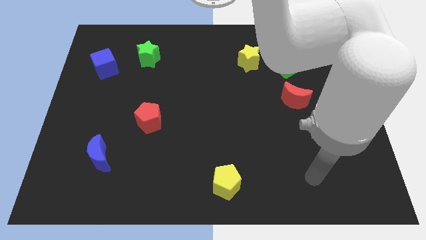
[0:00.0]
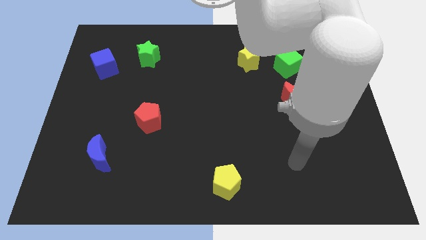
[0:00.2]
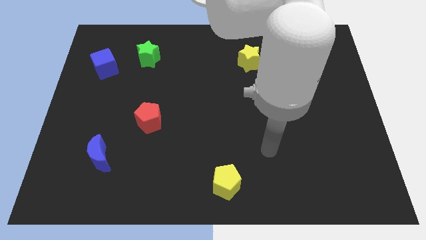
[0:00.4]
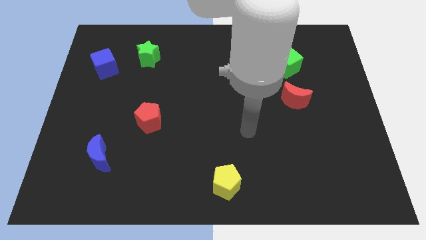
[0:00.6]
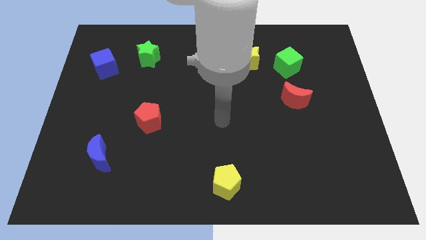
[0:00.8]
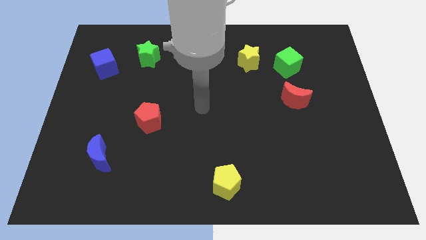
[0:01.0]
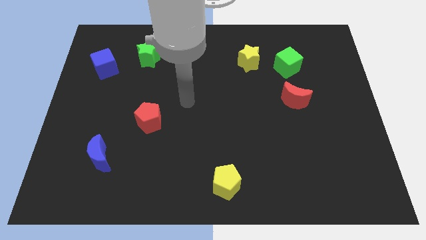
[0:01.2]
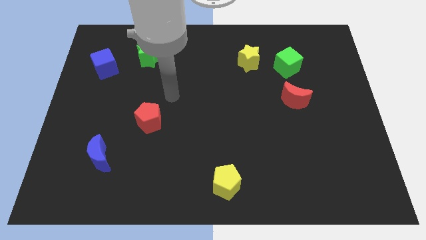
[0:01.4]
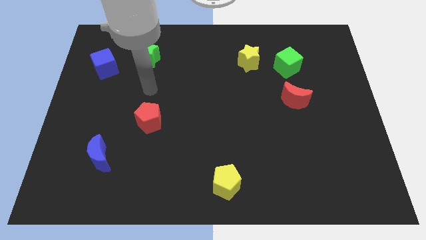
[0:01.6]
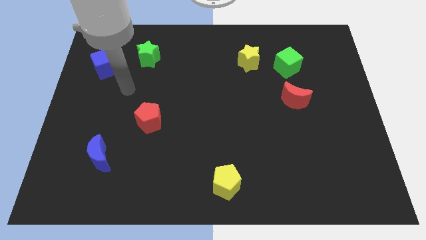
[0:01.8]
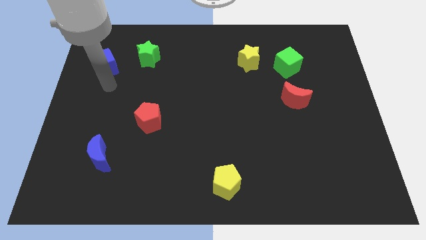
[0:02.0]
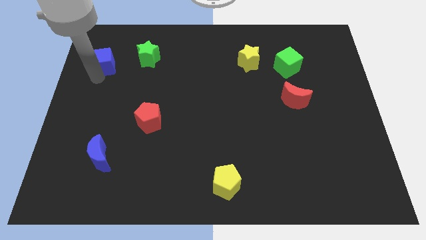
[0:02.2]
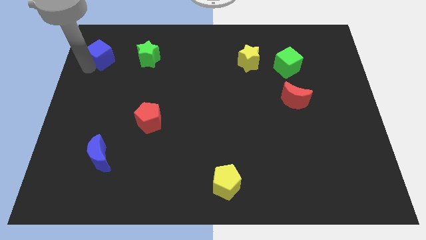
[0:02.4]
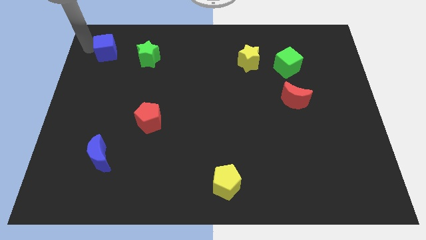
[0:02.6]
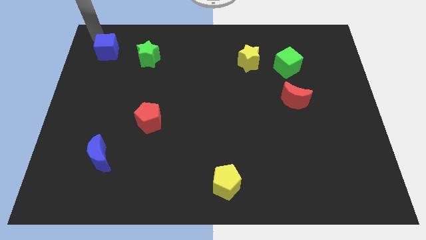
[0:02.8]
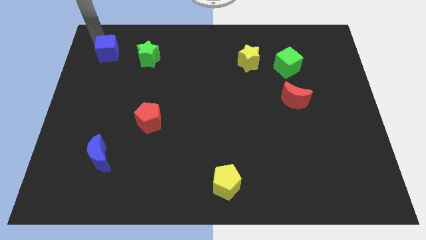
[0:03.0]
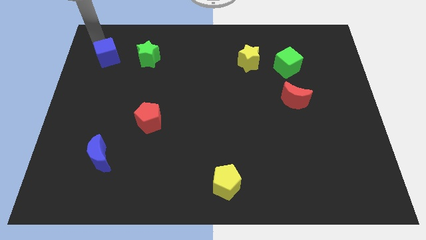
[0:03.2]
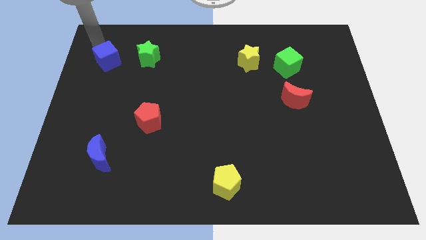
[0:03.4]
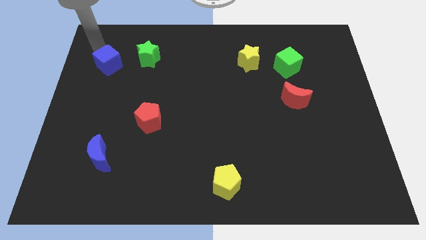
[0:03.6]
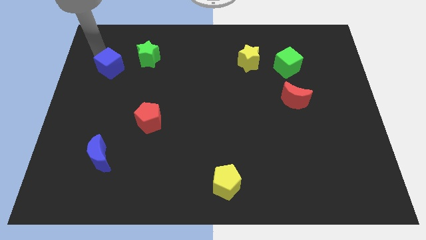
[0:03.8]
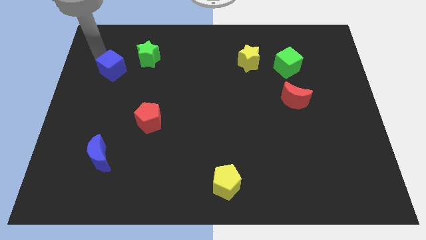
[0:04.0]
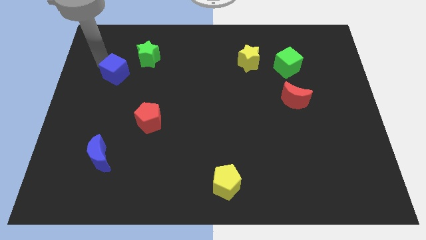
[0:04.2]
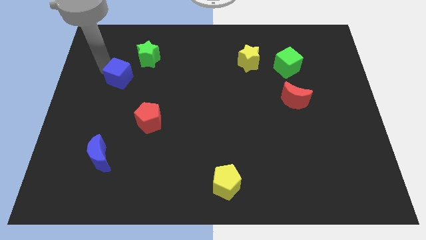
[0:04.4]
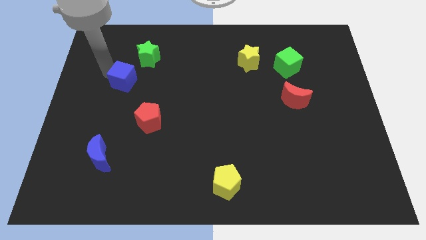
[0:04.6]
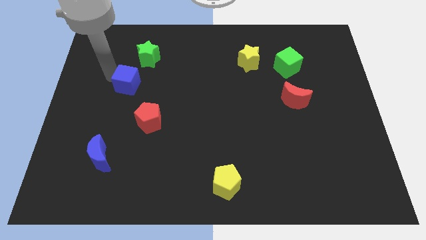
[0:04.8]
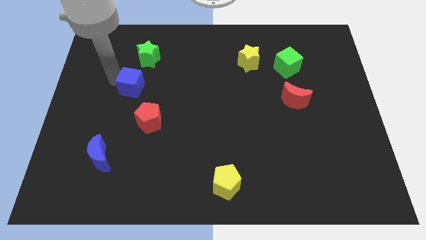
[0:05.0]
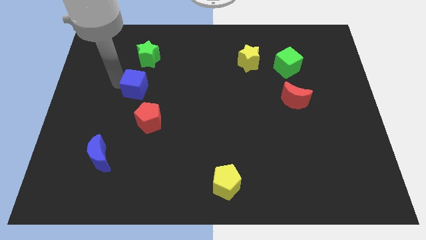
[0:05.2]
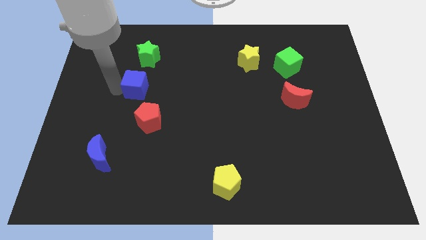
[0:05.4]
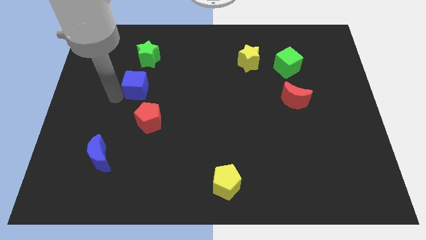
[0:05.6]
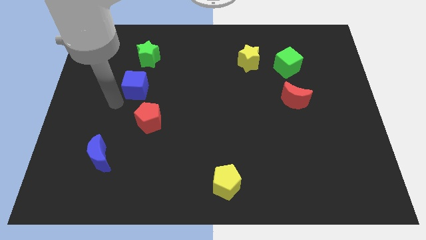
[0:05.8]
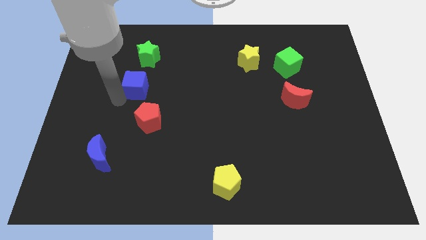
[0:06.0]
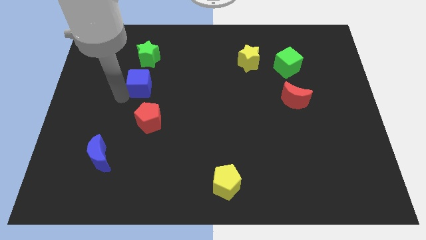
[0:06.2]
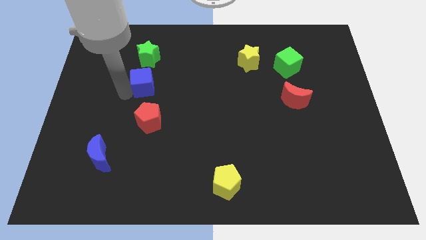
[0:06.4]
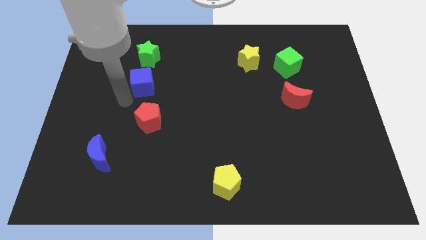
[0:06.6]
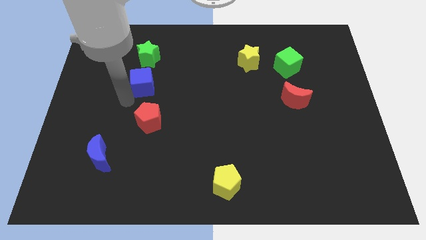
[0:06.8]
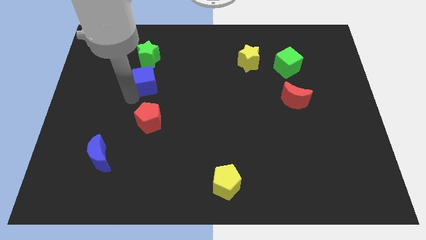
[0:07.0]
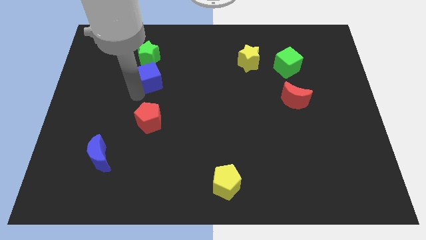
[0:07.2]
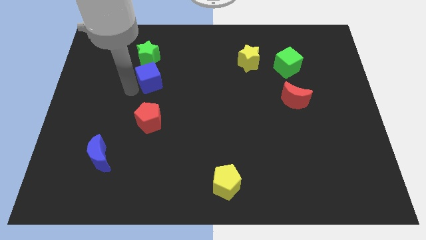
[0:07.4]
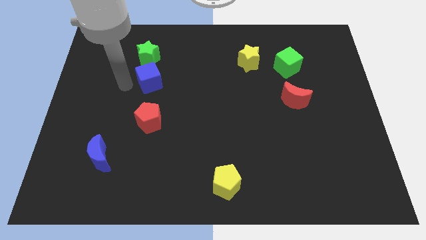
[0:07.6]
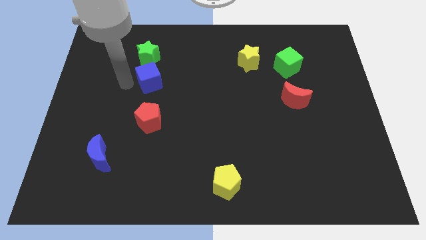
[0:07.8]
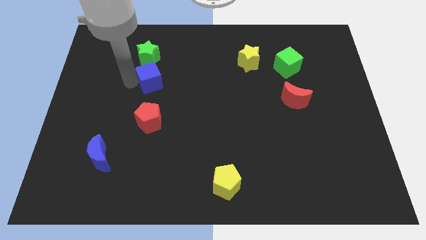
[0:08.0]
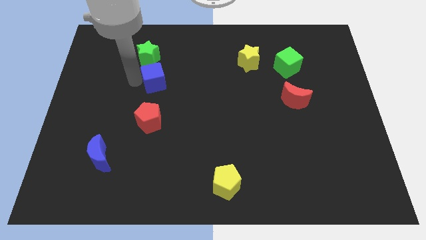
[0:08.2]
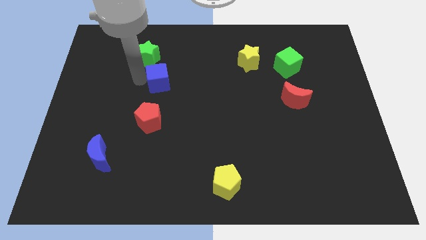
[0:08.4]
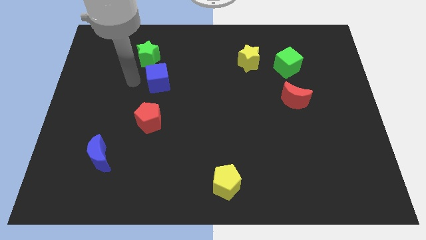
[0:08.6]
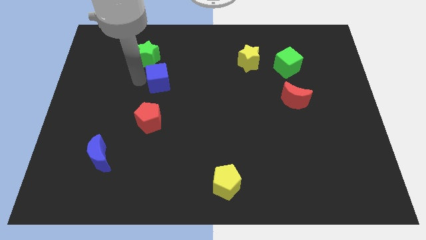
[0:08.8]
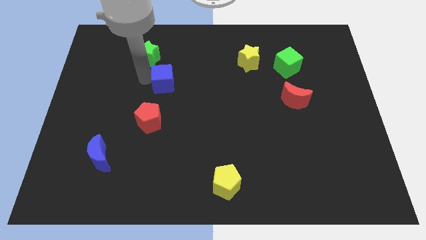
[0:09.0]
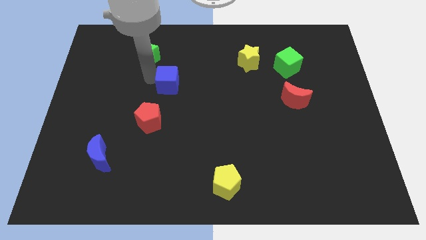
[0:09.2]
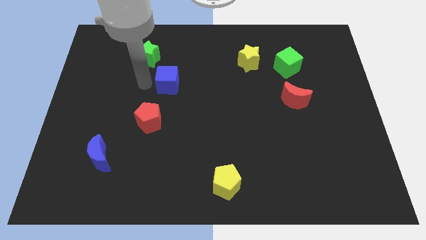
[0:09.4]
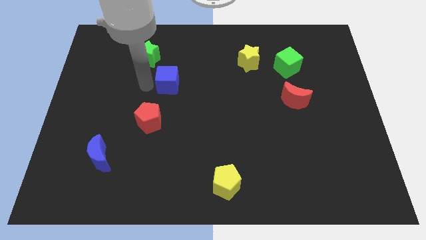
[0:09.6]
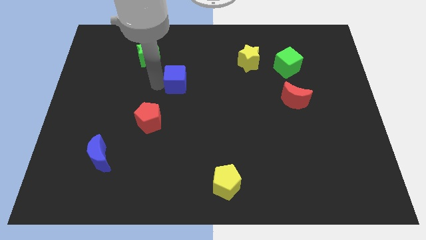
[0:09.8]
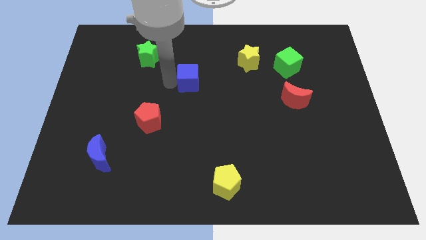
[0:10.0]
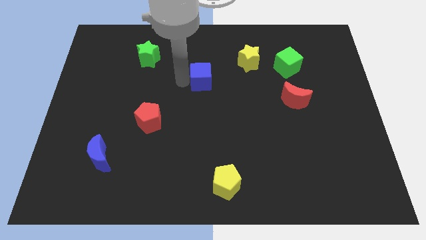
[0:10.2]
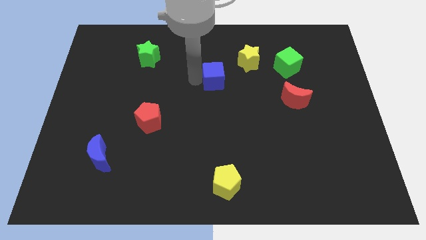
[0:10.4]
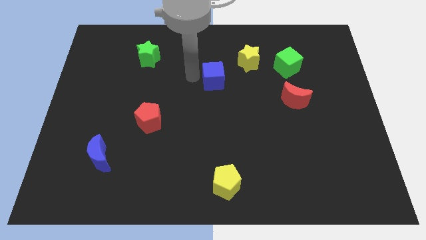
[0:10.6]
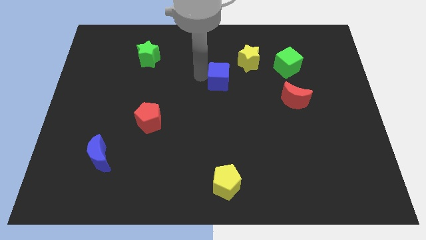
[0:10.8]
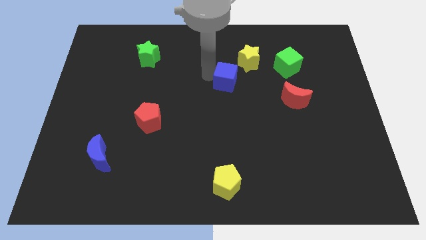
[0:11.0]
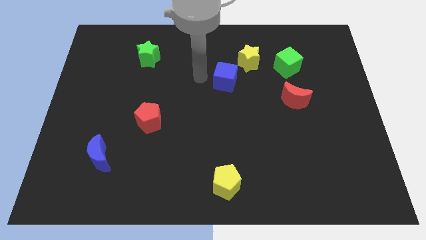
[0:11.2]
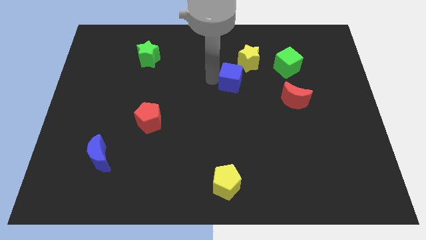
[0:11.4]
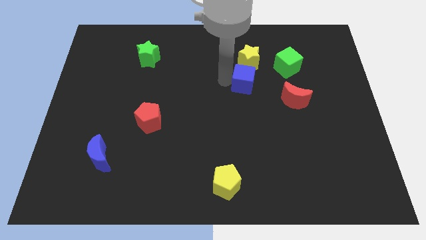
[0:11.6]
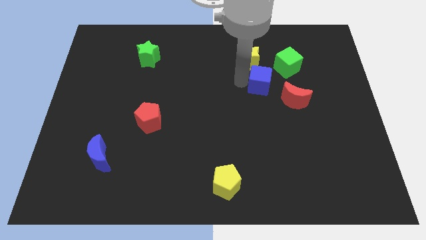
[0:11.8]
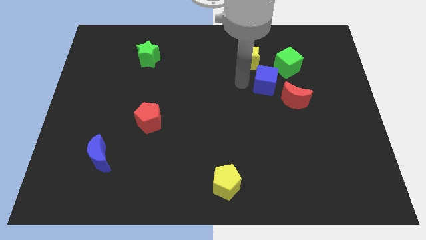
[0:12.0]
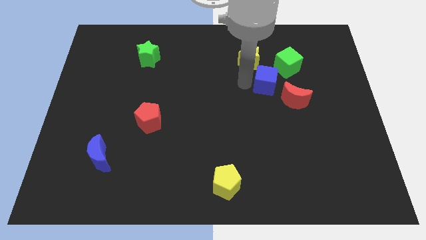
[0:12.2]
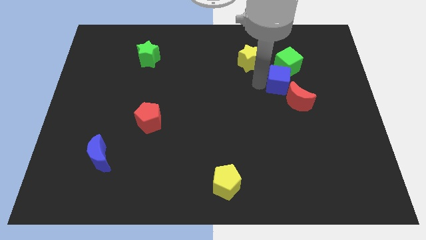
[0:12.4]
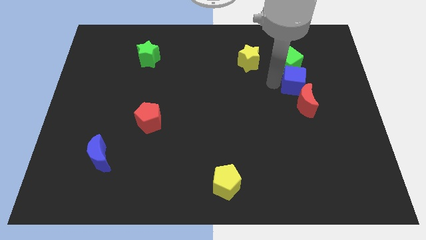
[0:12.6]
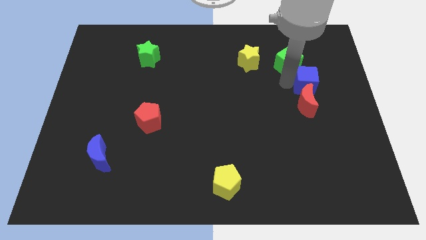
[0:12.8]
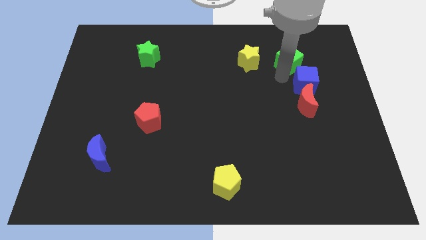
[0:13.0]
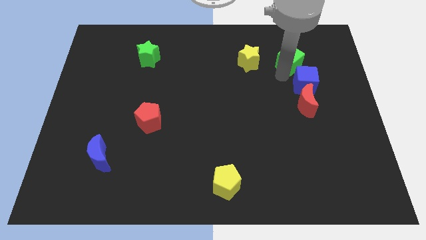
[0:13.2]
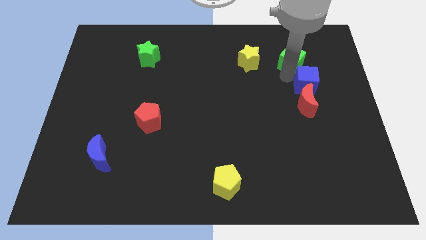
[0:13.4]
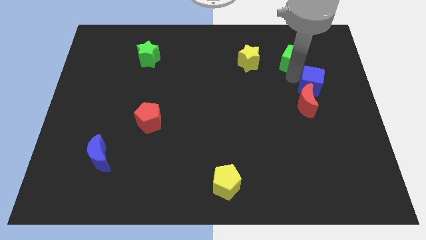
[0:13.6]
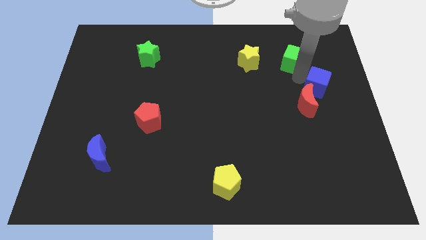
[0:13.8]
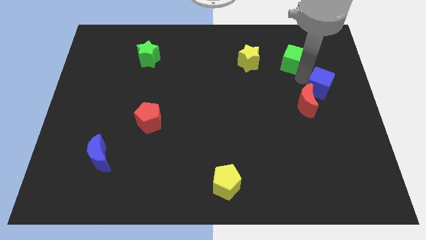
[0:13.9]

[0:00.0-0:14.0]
push the blue cube to the center right
